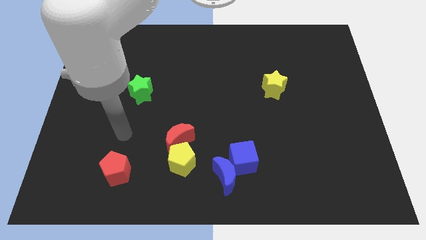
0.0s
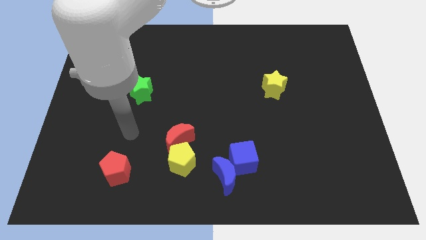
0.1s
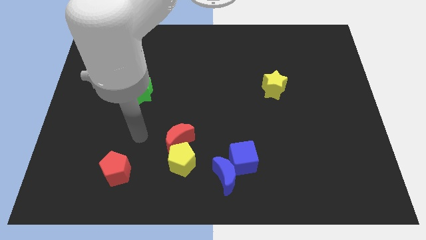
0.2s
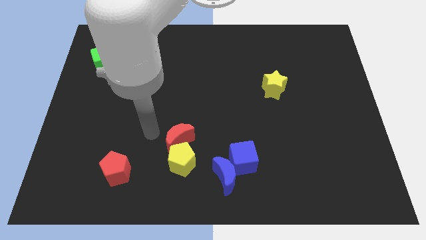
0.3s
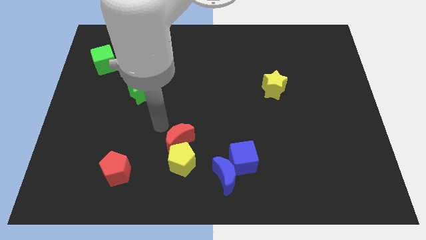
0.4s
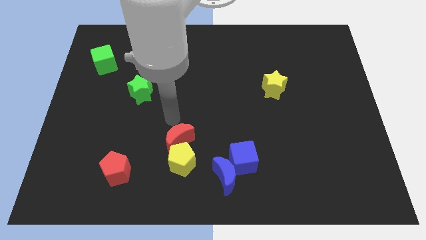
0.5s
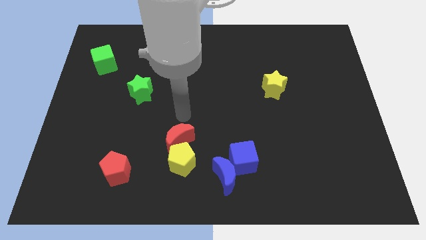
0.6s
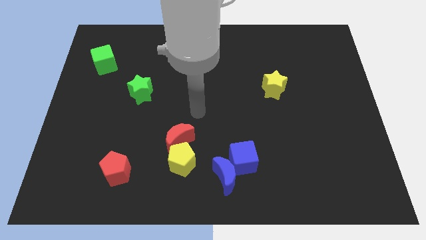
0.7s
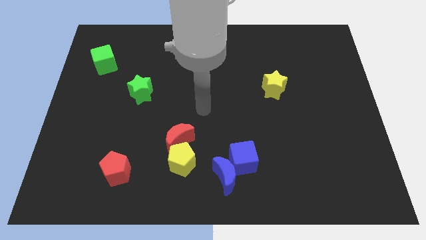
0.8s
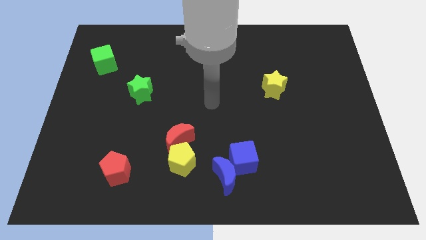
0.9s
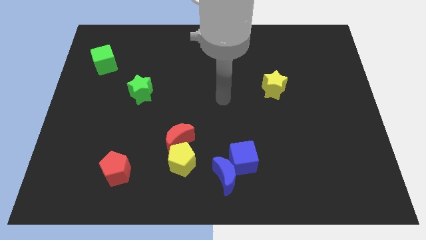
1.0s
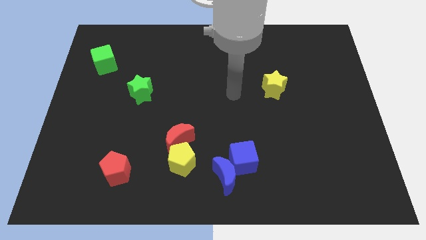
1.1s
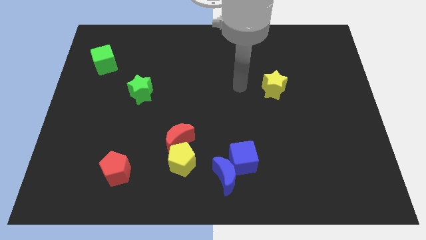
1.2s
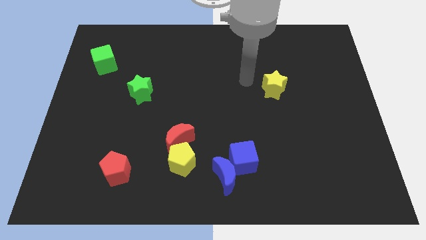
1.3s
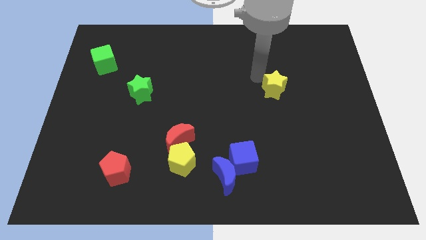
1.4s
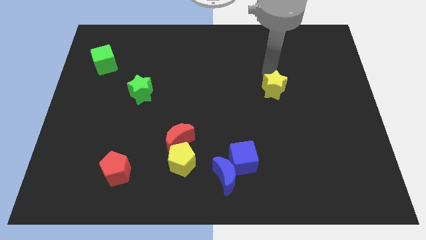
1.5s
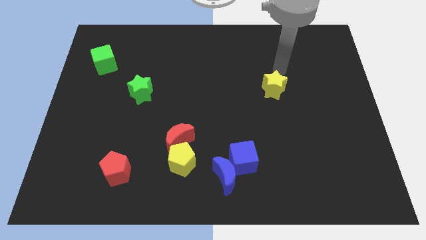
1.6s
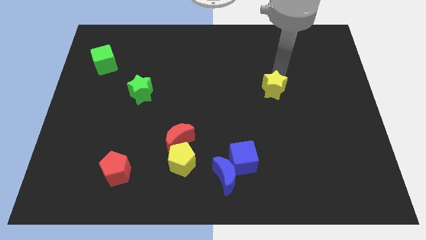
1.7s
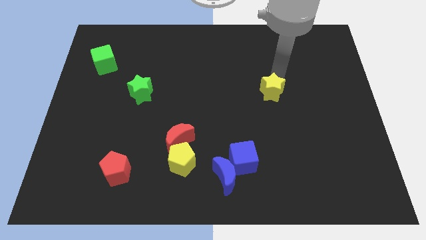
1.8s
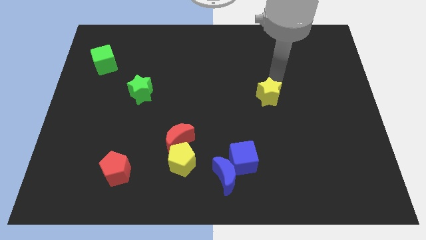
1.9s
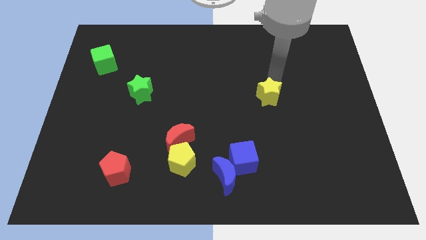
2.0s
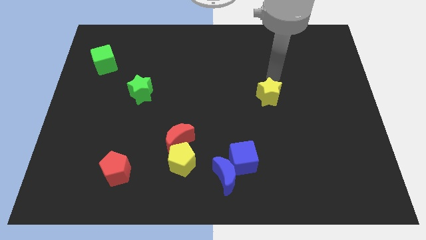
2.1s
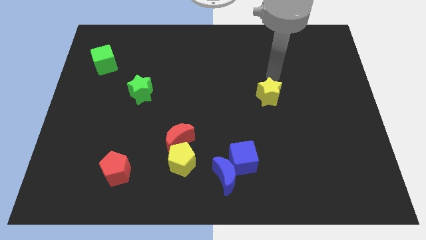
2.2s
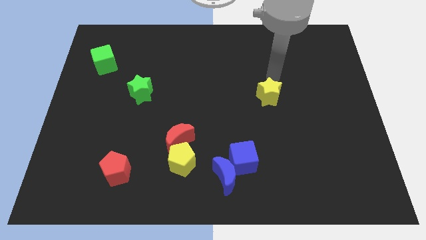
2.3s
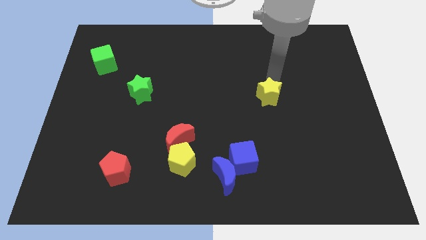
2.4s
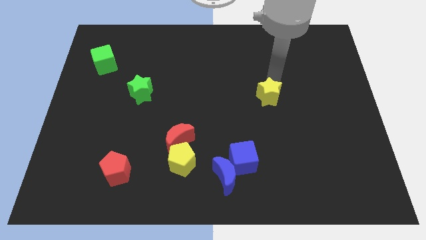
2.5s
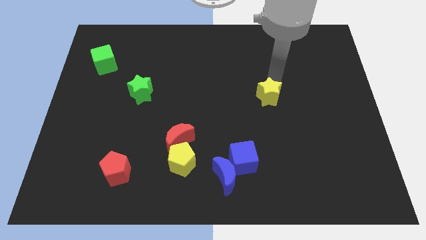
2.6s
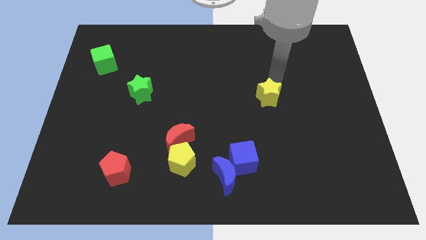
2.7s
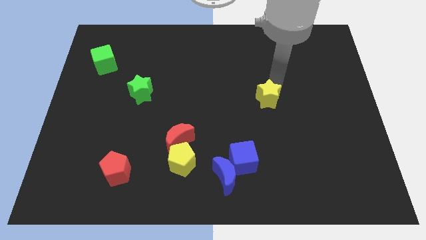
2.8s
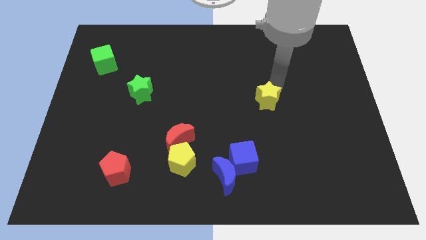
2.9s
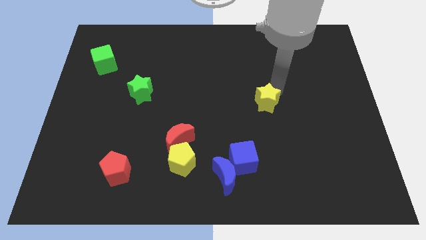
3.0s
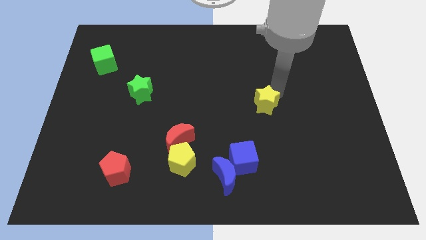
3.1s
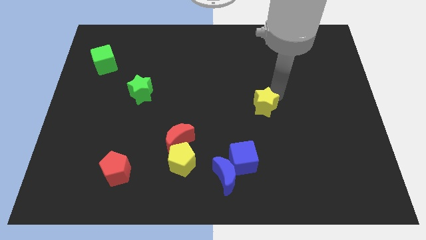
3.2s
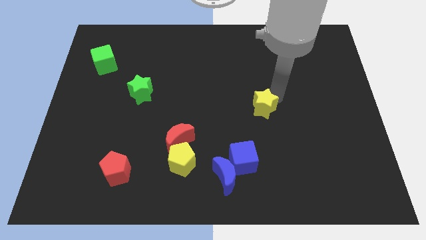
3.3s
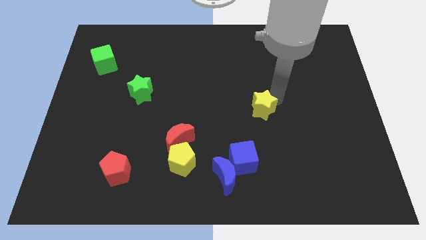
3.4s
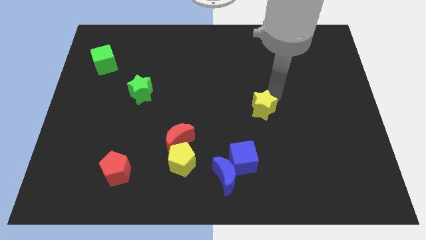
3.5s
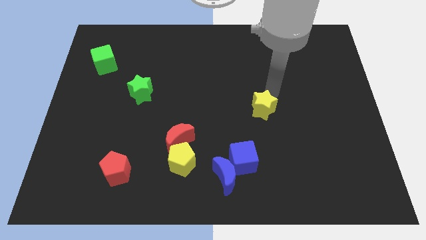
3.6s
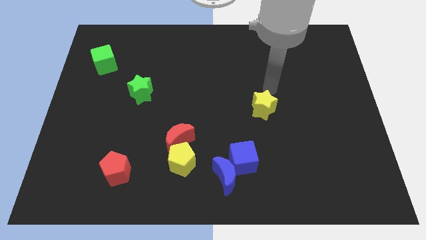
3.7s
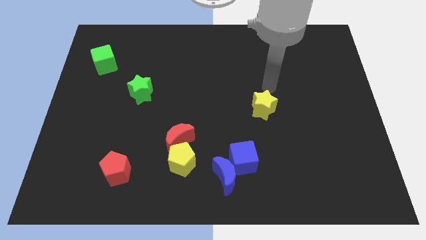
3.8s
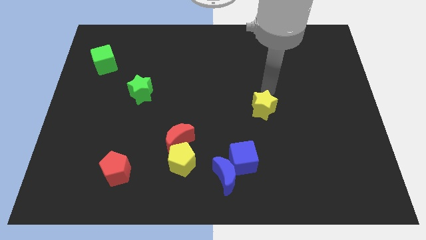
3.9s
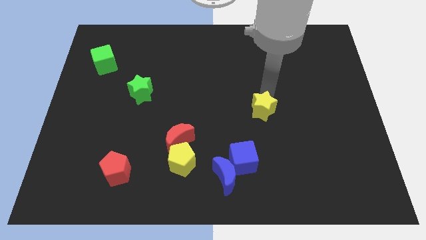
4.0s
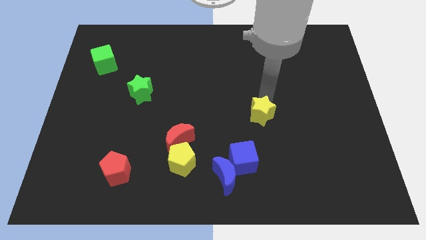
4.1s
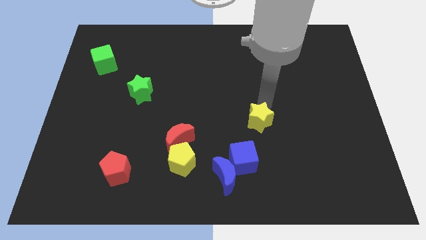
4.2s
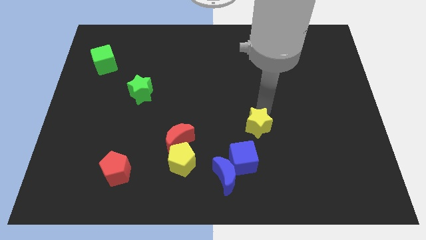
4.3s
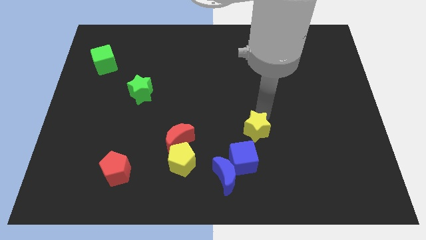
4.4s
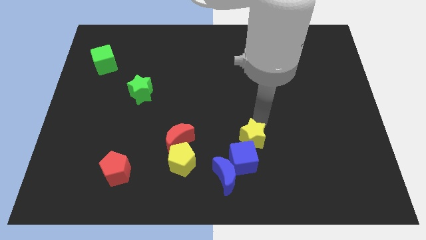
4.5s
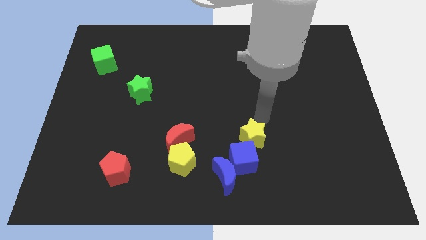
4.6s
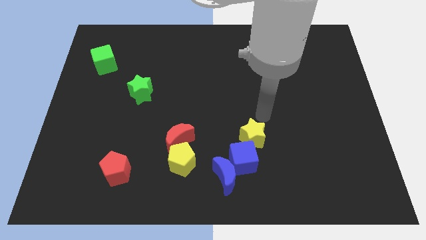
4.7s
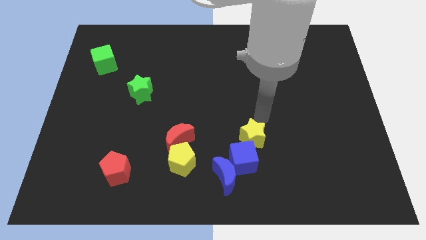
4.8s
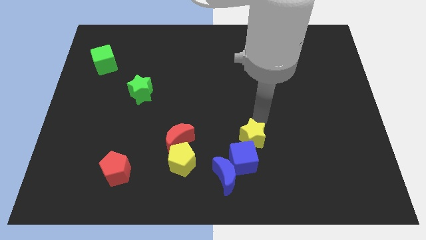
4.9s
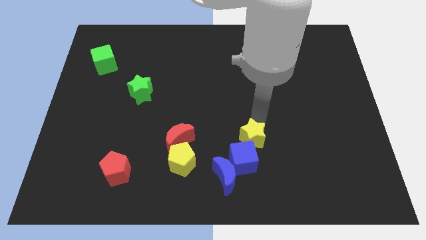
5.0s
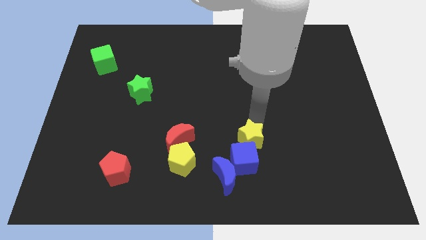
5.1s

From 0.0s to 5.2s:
slide the yellow star close to the blue cube

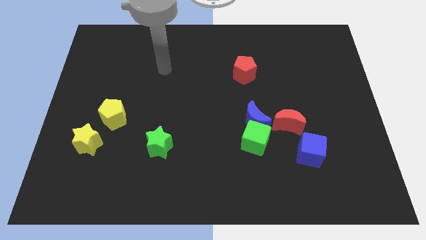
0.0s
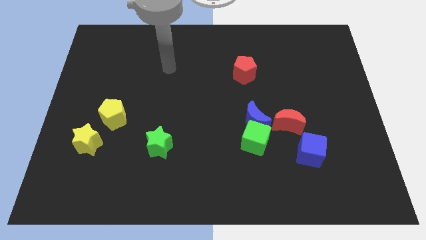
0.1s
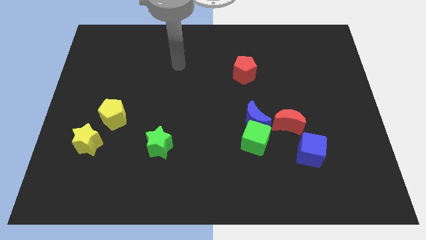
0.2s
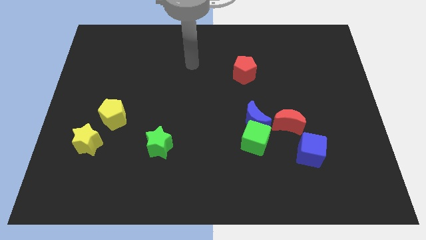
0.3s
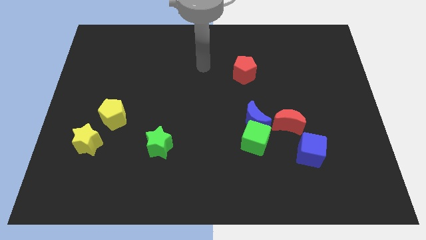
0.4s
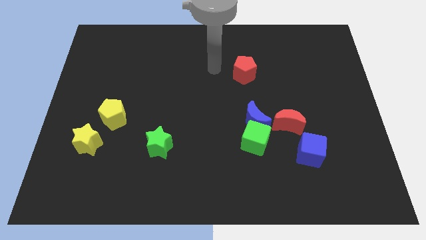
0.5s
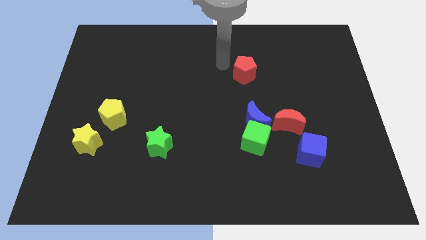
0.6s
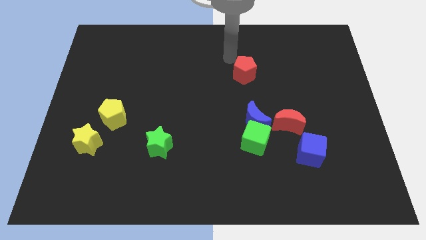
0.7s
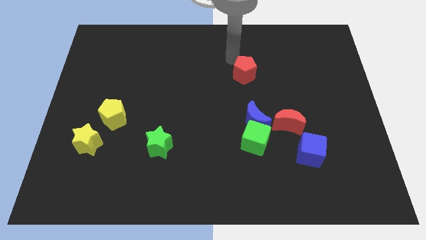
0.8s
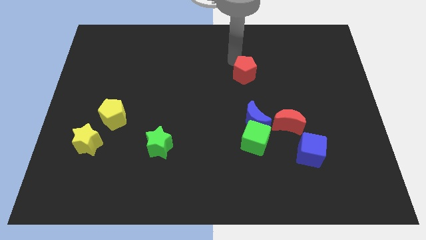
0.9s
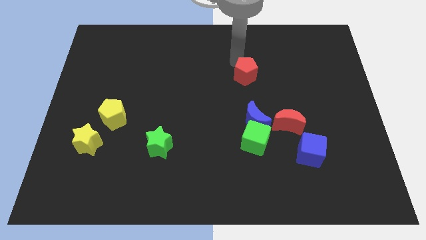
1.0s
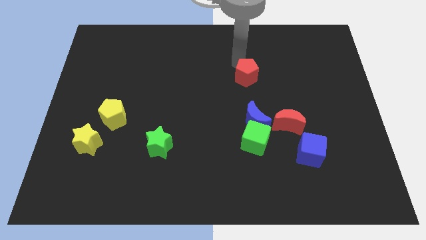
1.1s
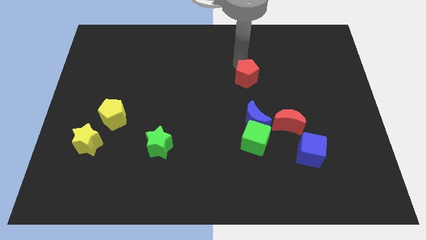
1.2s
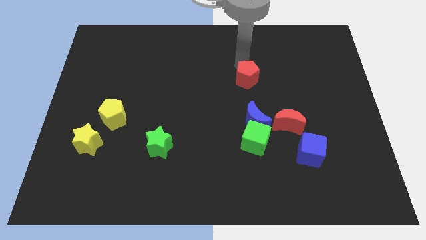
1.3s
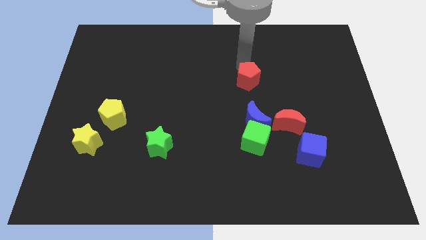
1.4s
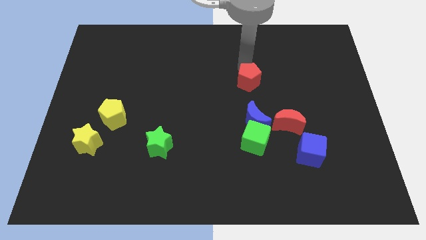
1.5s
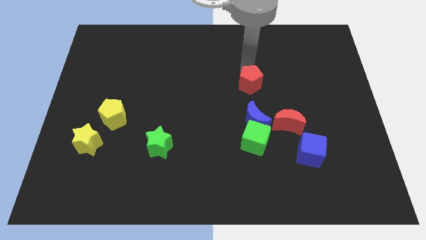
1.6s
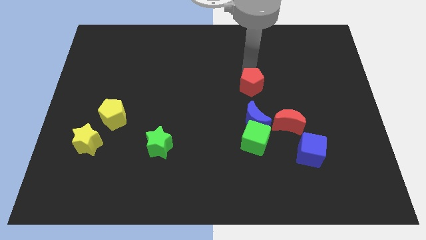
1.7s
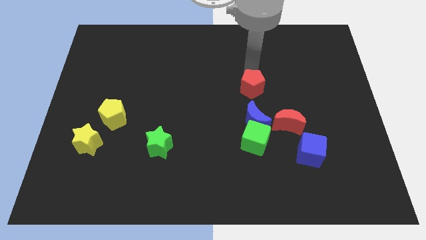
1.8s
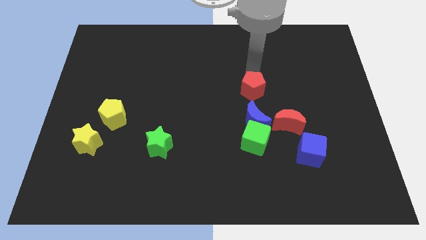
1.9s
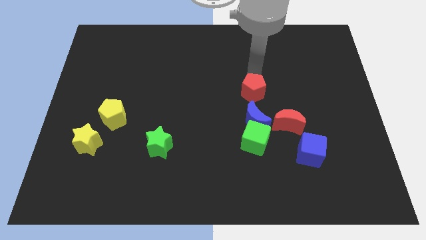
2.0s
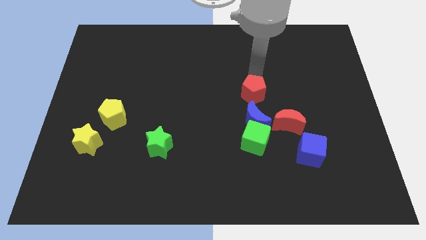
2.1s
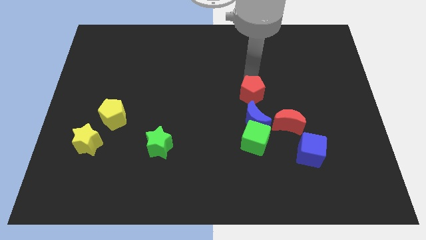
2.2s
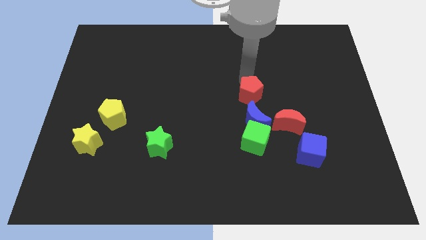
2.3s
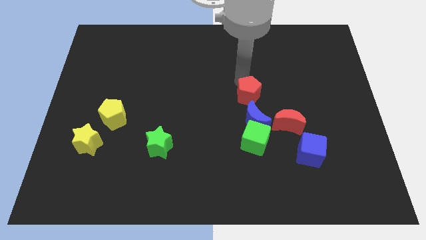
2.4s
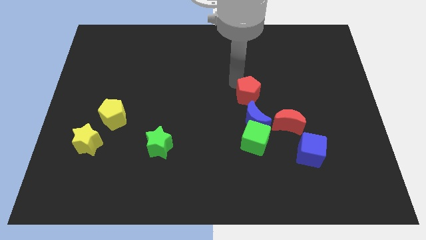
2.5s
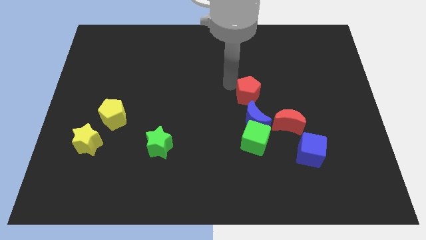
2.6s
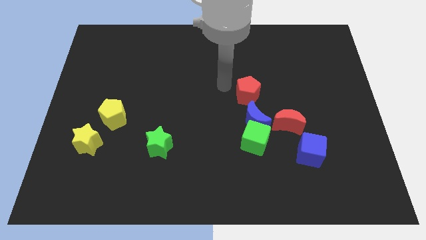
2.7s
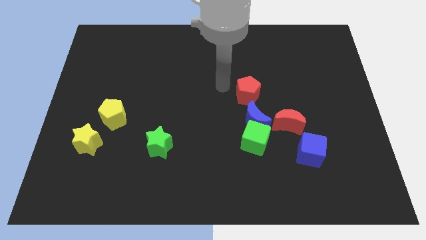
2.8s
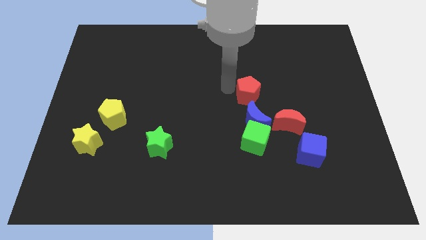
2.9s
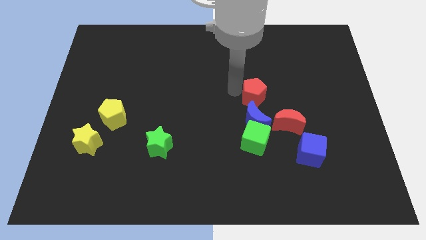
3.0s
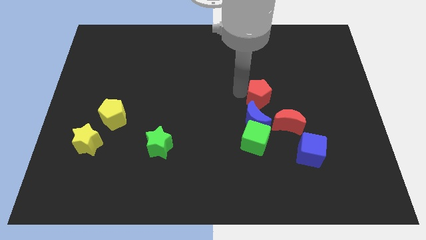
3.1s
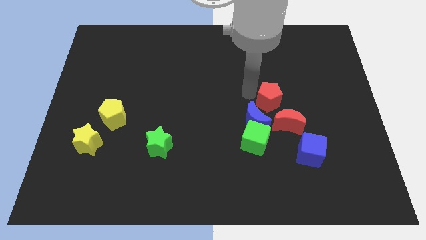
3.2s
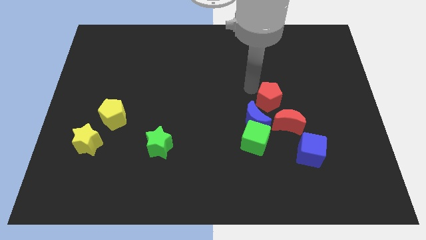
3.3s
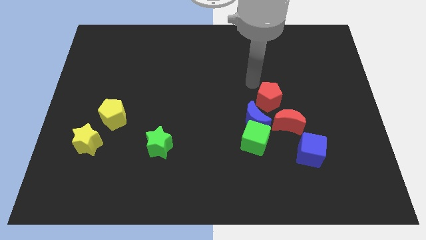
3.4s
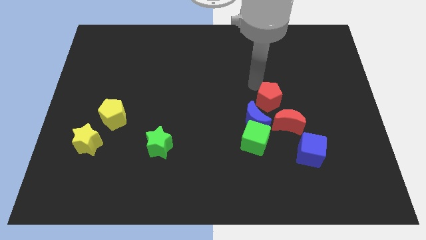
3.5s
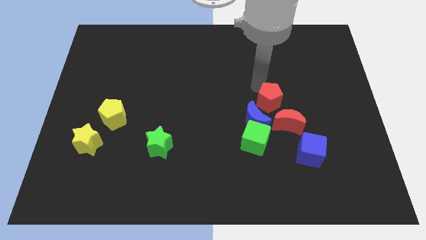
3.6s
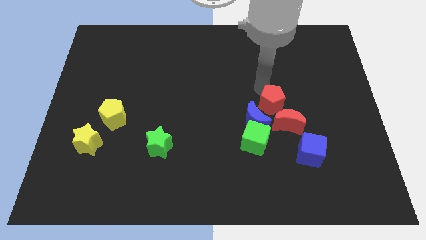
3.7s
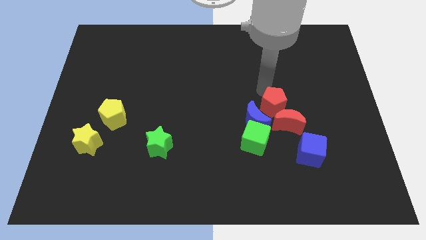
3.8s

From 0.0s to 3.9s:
slide the red pentagon next to the red moon
